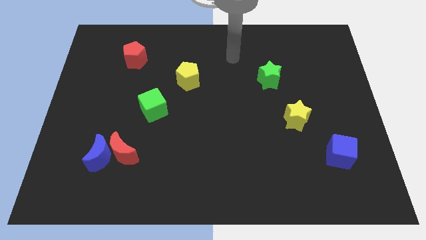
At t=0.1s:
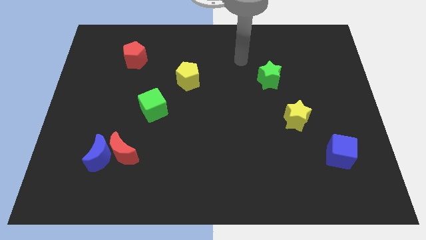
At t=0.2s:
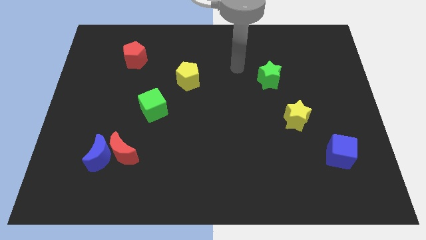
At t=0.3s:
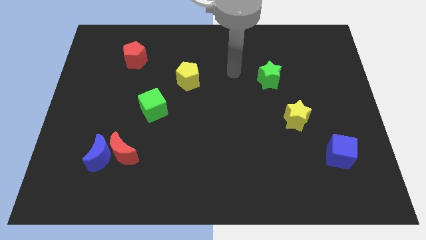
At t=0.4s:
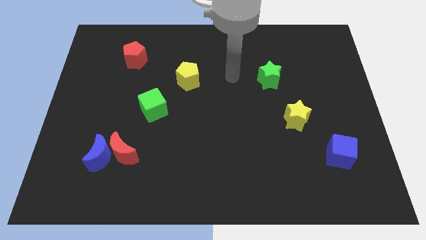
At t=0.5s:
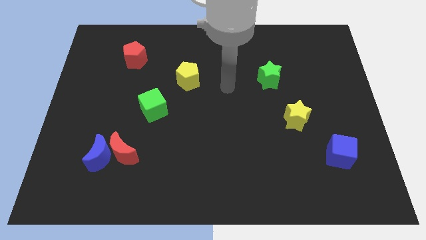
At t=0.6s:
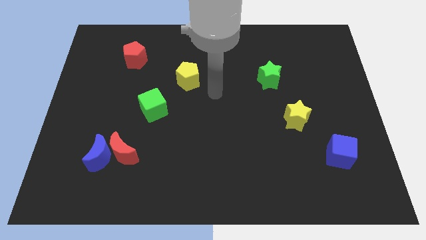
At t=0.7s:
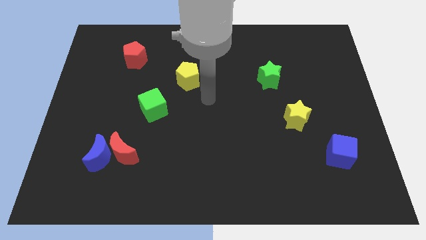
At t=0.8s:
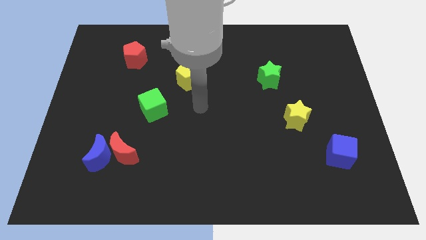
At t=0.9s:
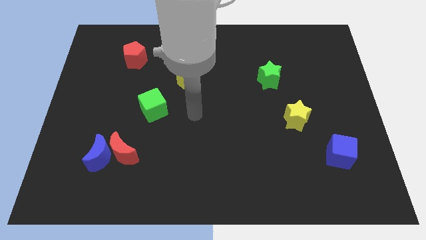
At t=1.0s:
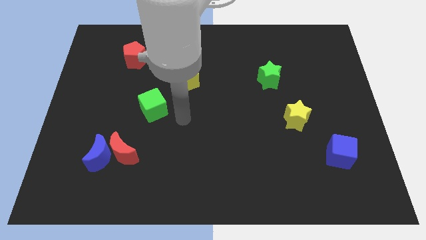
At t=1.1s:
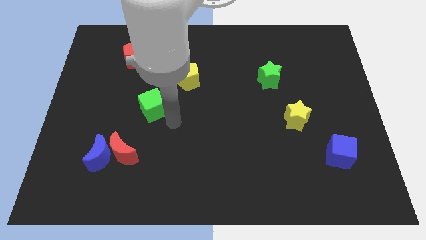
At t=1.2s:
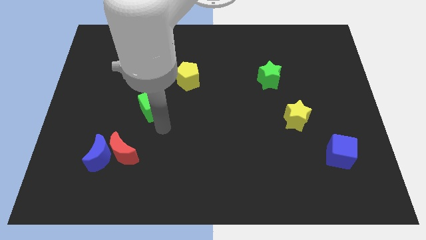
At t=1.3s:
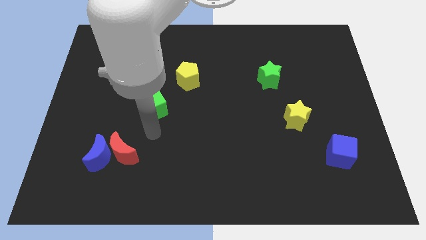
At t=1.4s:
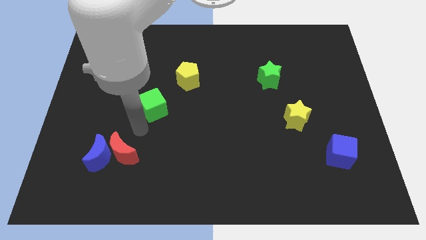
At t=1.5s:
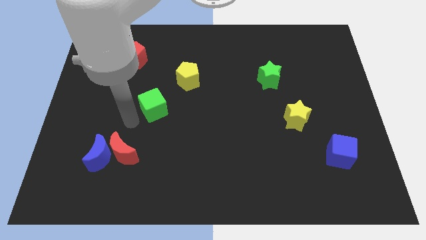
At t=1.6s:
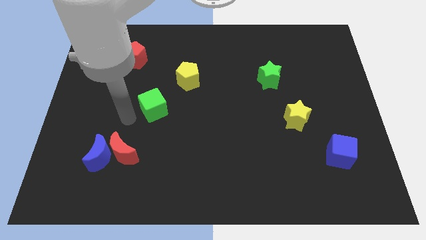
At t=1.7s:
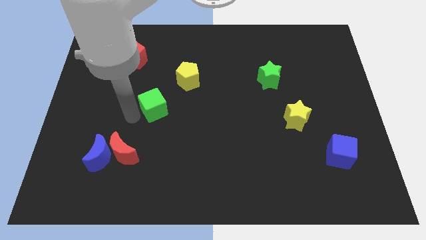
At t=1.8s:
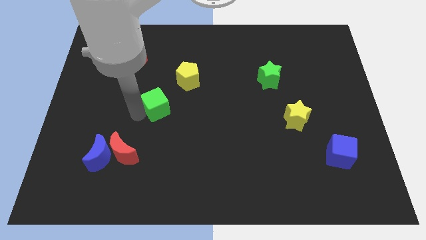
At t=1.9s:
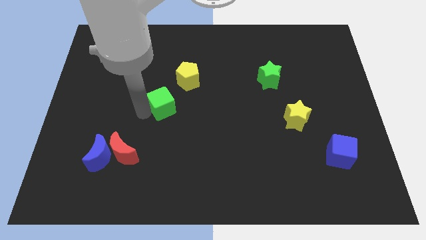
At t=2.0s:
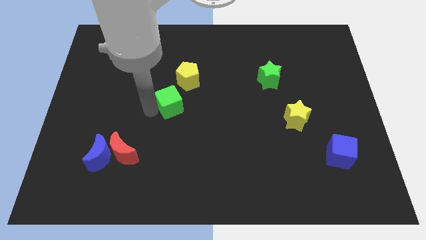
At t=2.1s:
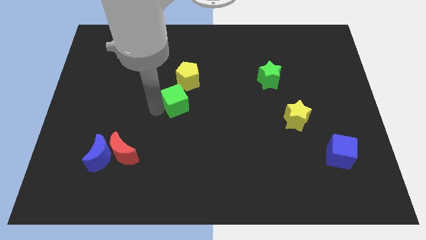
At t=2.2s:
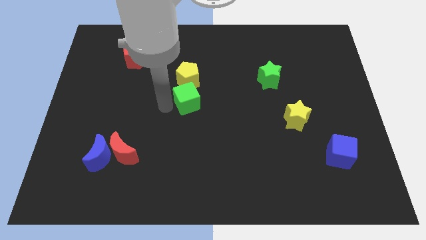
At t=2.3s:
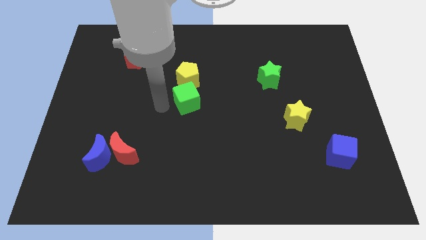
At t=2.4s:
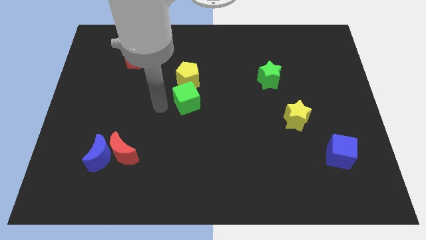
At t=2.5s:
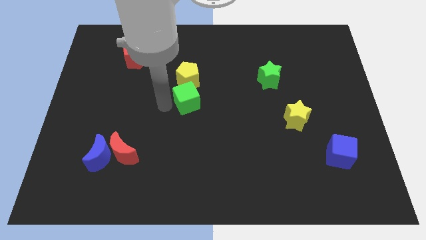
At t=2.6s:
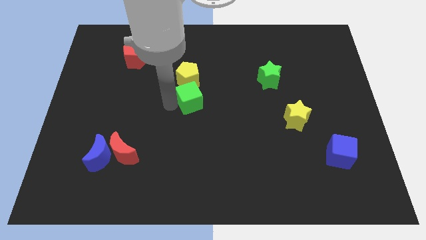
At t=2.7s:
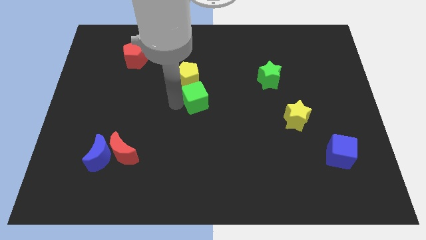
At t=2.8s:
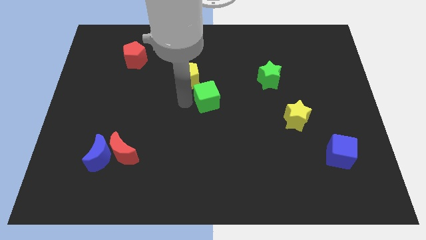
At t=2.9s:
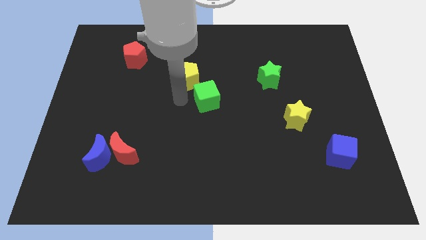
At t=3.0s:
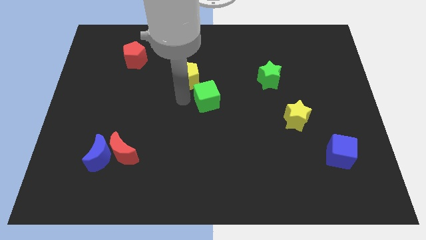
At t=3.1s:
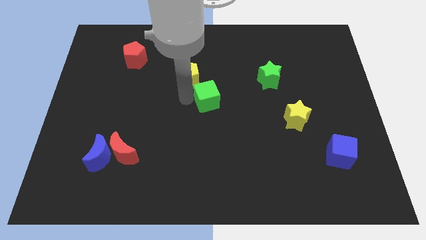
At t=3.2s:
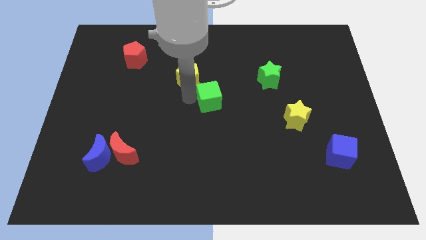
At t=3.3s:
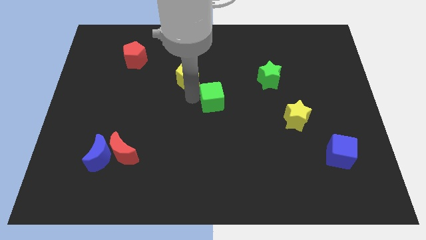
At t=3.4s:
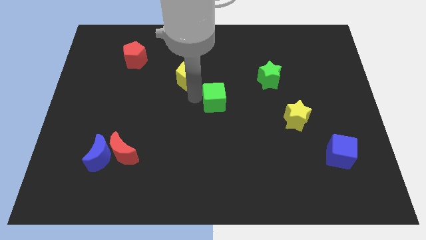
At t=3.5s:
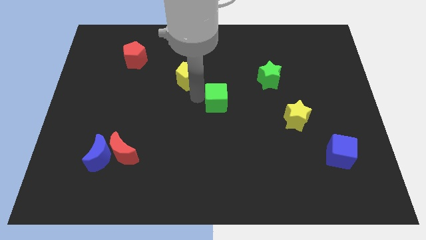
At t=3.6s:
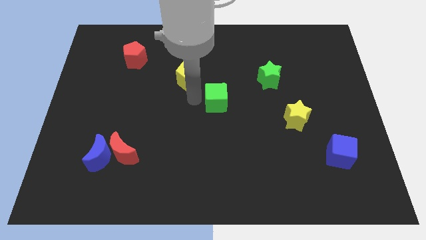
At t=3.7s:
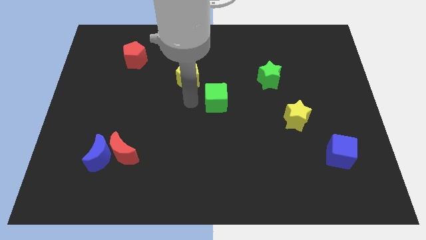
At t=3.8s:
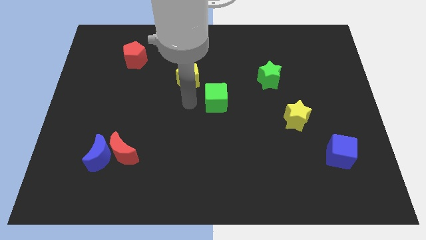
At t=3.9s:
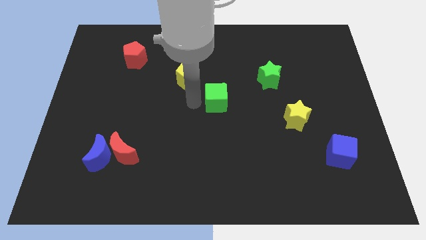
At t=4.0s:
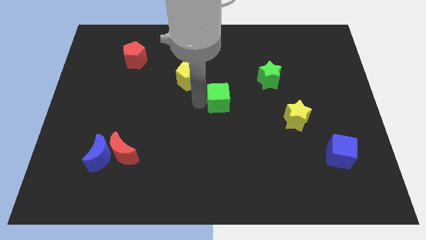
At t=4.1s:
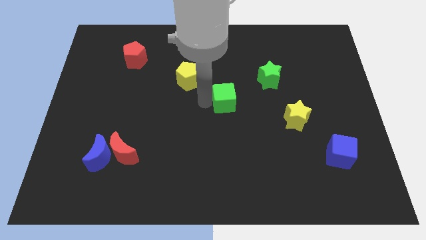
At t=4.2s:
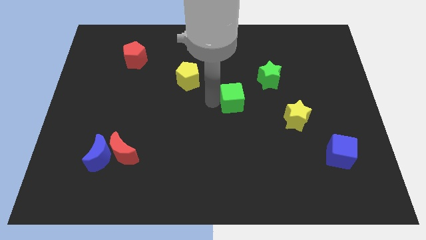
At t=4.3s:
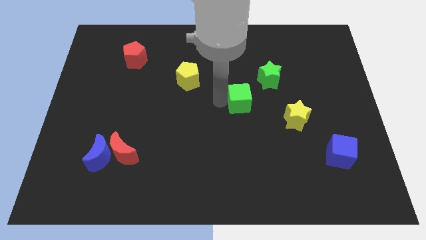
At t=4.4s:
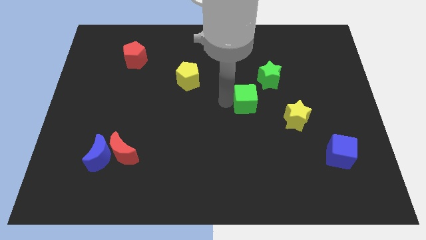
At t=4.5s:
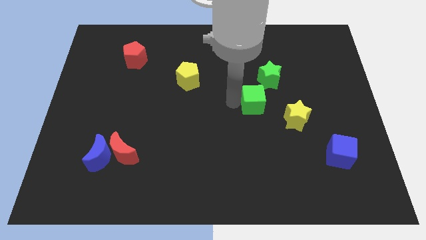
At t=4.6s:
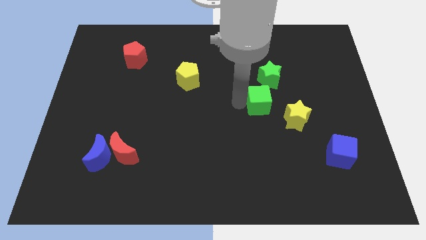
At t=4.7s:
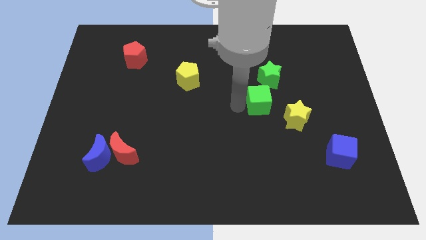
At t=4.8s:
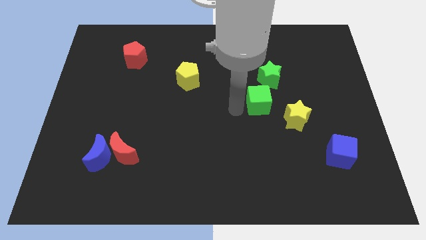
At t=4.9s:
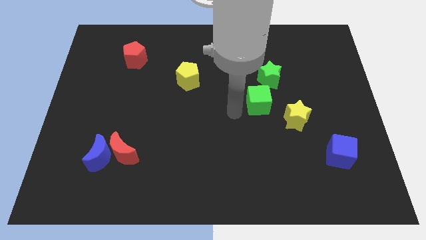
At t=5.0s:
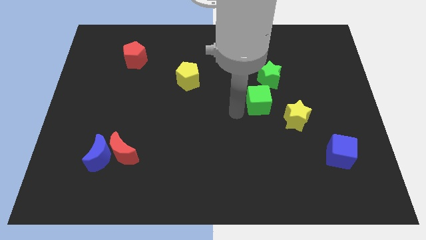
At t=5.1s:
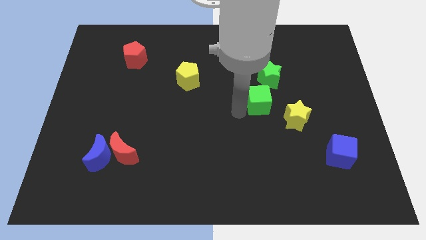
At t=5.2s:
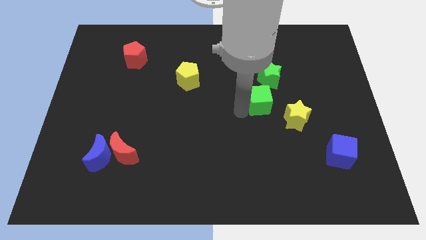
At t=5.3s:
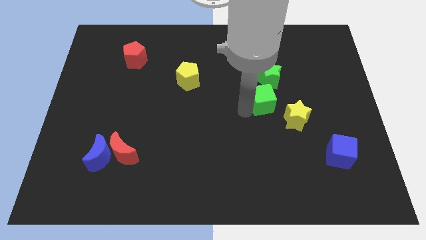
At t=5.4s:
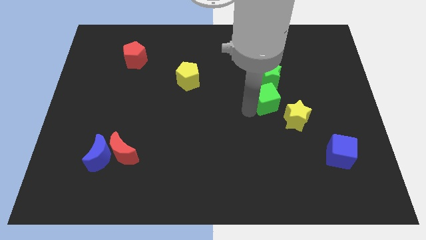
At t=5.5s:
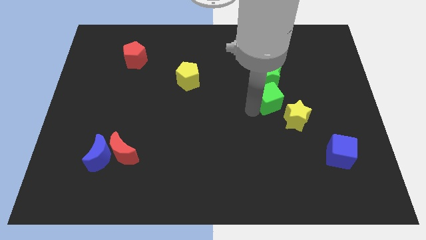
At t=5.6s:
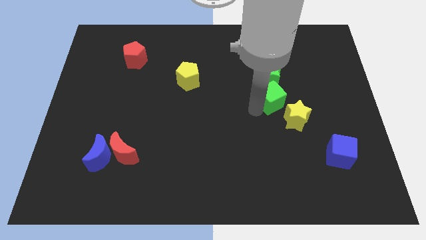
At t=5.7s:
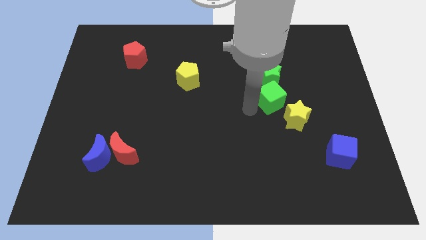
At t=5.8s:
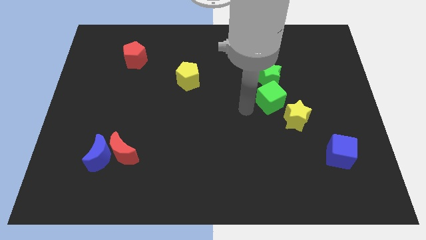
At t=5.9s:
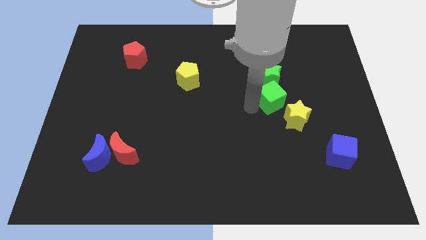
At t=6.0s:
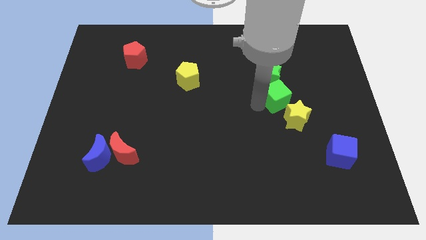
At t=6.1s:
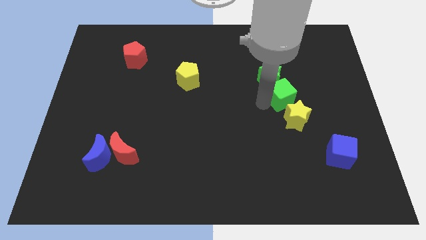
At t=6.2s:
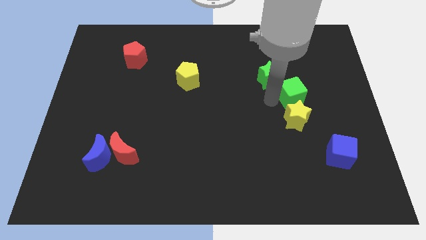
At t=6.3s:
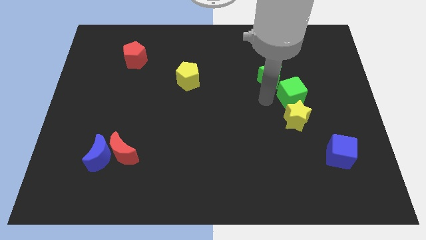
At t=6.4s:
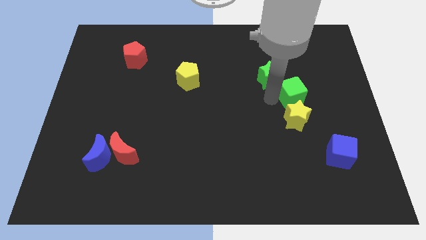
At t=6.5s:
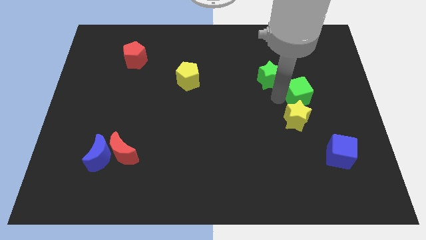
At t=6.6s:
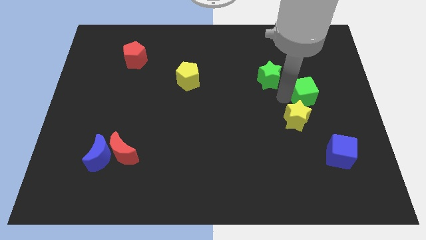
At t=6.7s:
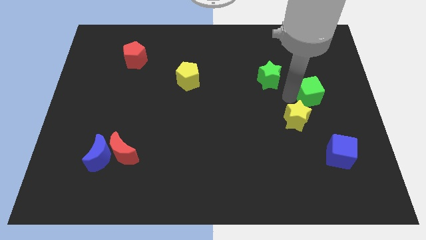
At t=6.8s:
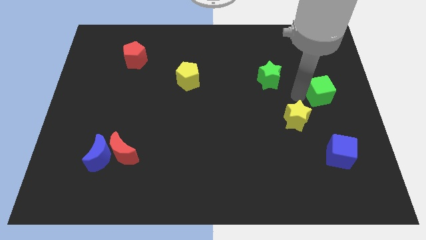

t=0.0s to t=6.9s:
push the green cube to the right side
